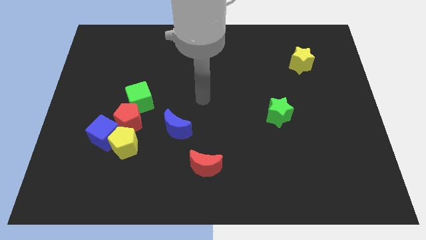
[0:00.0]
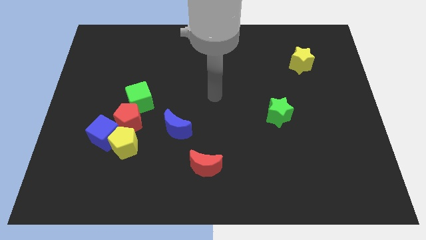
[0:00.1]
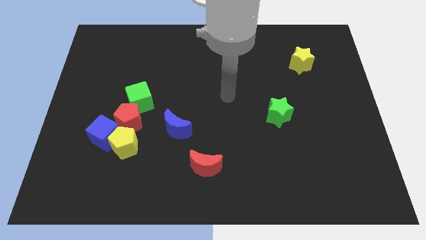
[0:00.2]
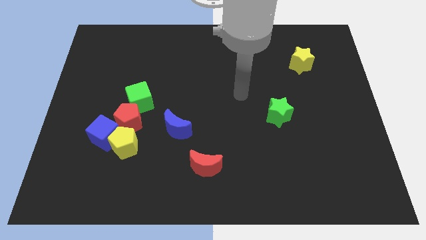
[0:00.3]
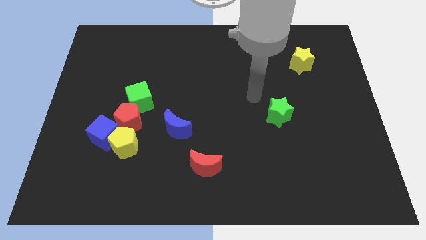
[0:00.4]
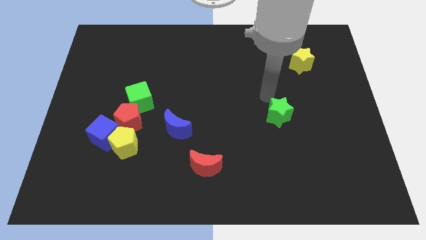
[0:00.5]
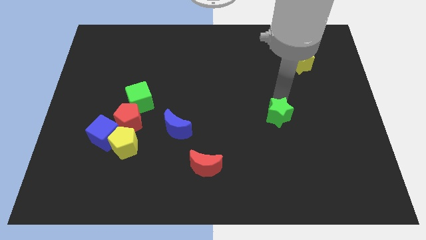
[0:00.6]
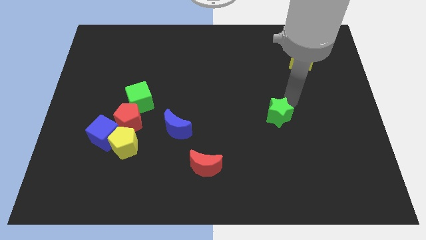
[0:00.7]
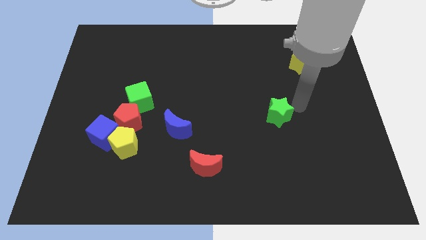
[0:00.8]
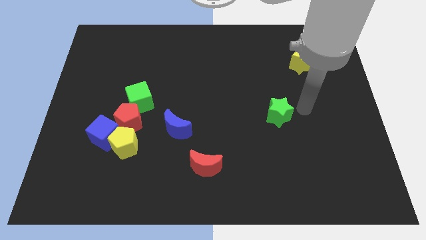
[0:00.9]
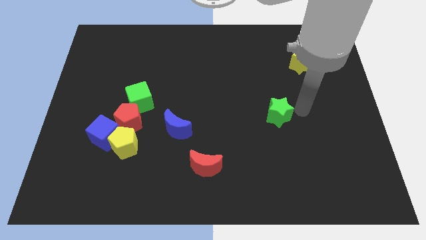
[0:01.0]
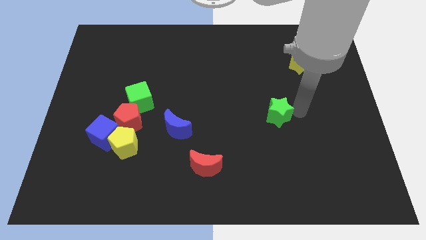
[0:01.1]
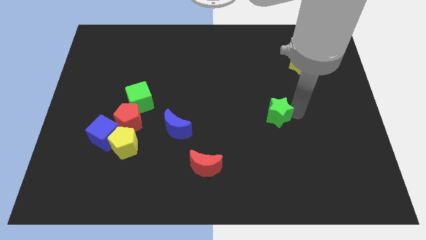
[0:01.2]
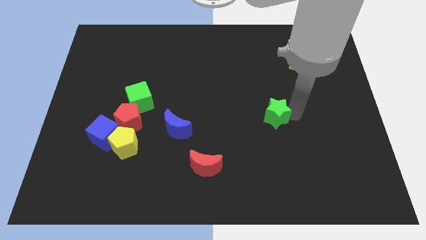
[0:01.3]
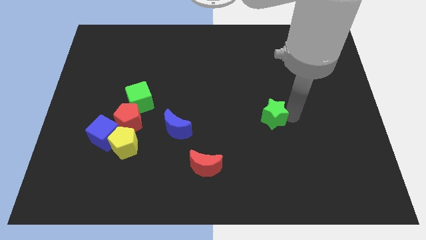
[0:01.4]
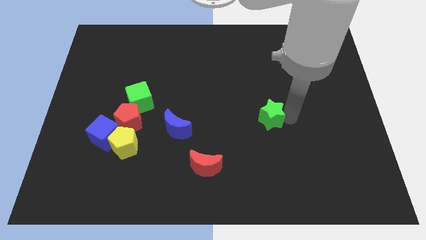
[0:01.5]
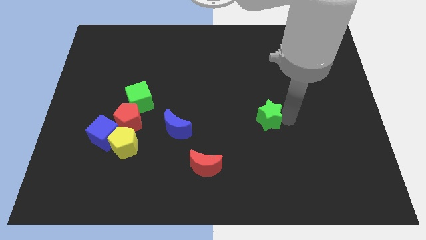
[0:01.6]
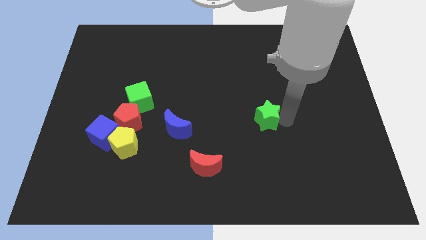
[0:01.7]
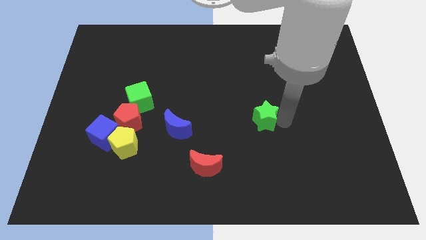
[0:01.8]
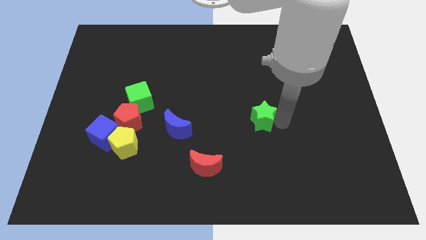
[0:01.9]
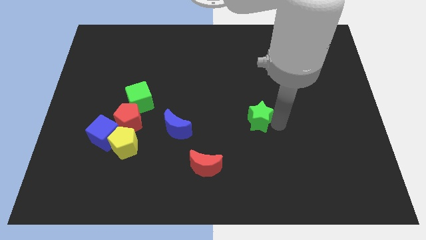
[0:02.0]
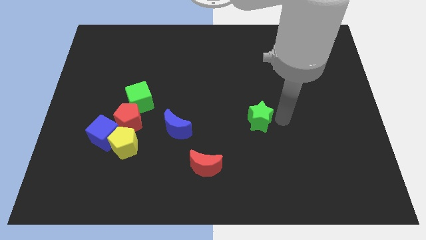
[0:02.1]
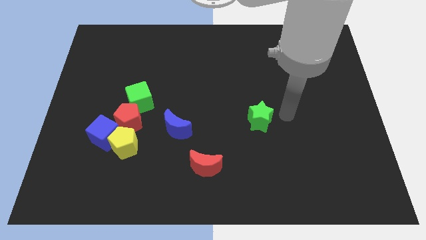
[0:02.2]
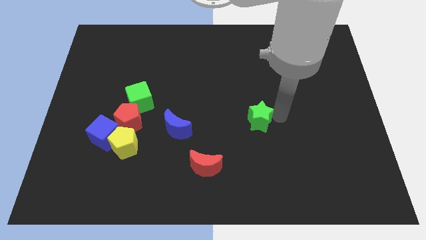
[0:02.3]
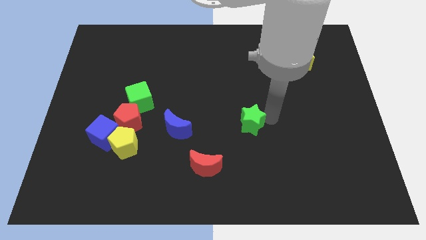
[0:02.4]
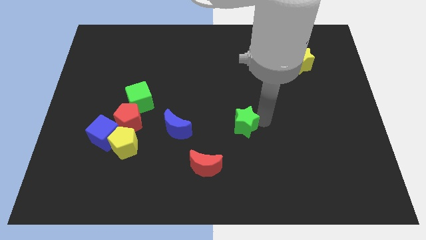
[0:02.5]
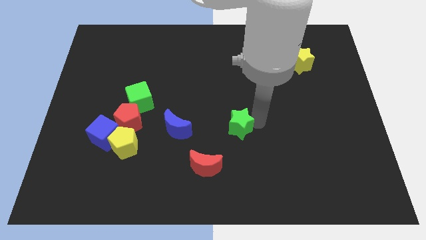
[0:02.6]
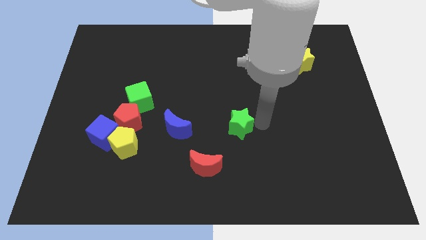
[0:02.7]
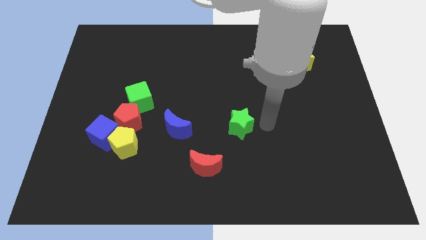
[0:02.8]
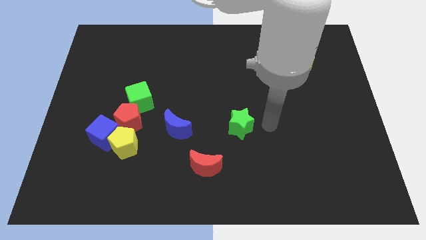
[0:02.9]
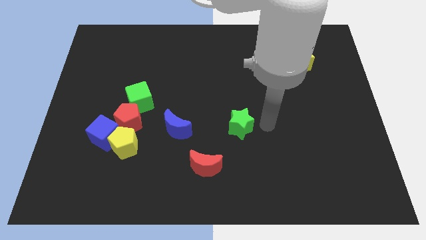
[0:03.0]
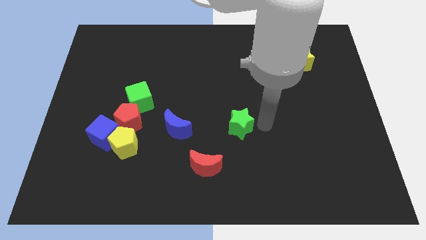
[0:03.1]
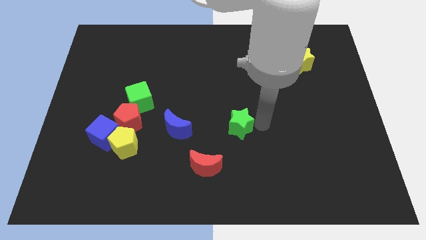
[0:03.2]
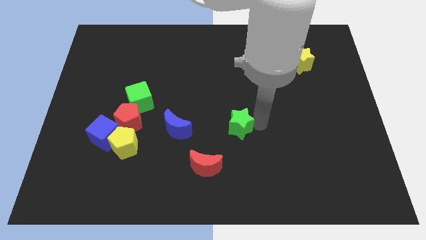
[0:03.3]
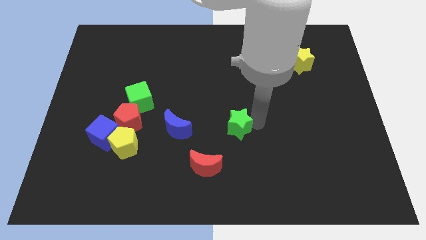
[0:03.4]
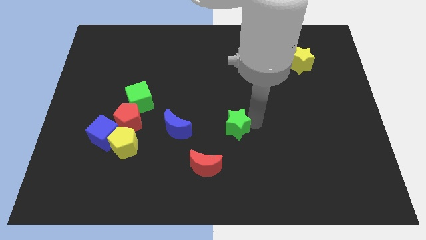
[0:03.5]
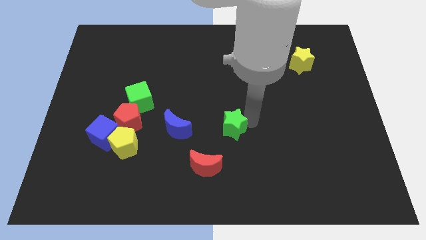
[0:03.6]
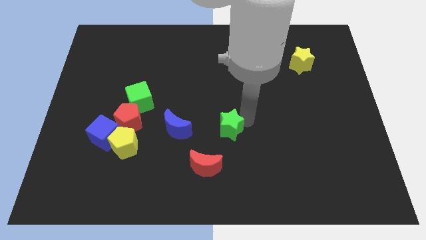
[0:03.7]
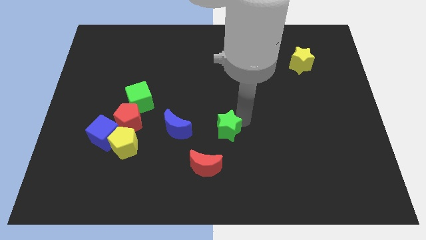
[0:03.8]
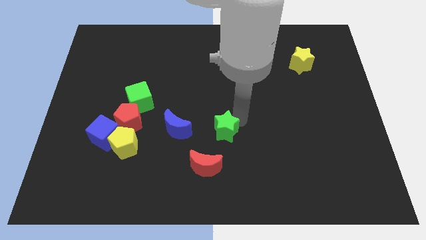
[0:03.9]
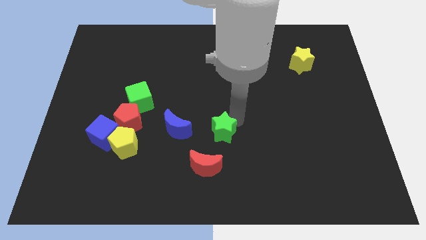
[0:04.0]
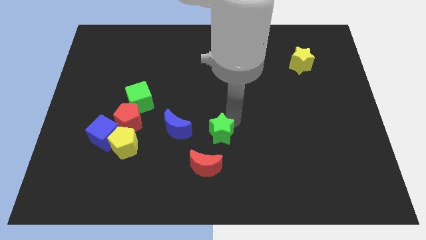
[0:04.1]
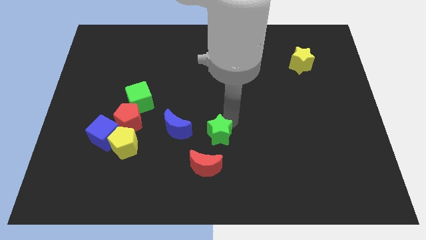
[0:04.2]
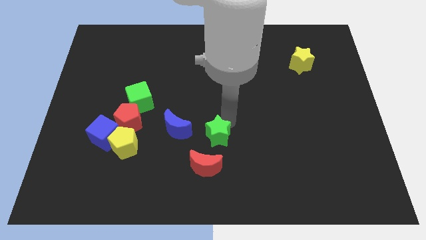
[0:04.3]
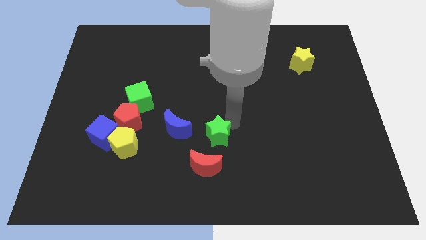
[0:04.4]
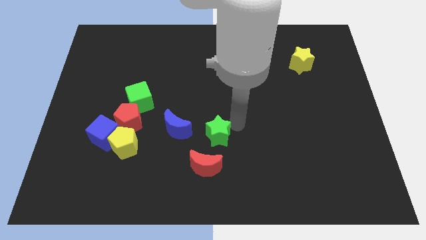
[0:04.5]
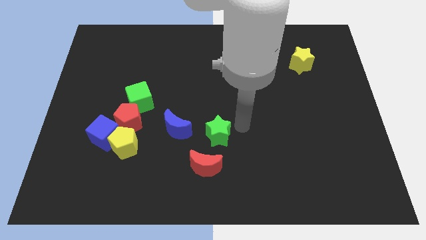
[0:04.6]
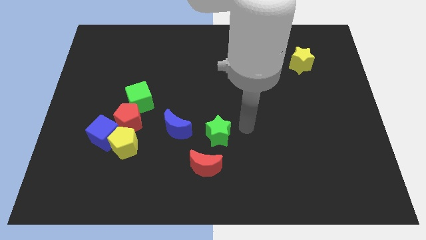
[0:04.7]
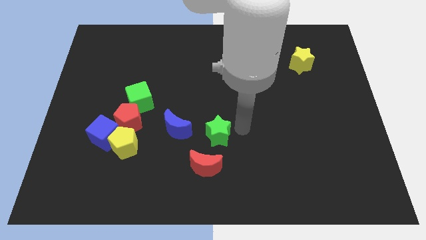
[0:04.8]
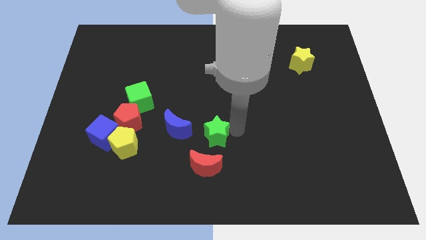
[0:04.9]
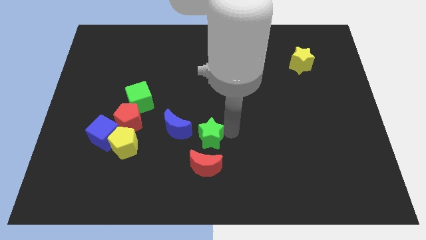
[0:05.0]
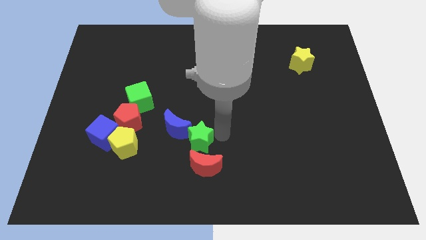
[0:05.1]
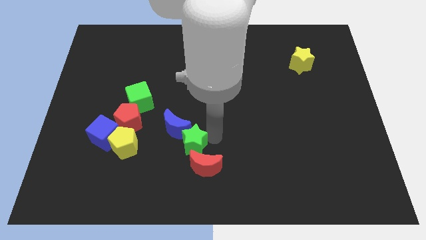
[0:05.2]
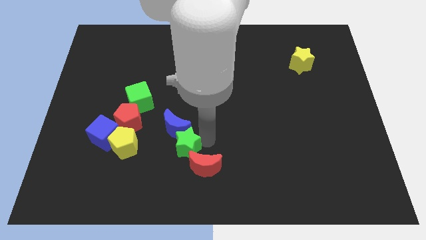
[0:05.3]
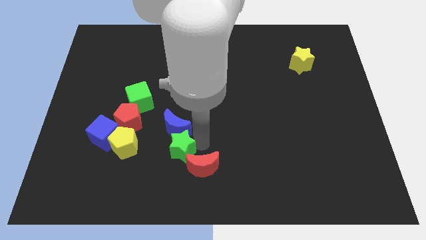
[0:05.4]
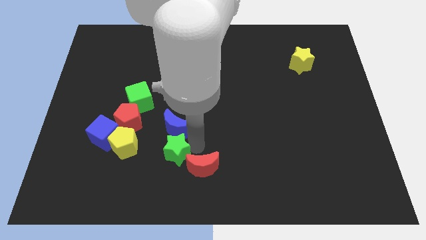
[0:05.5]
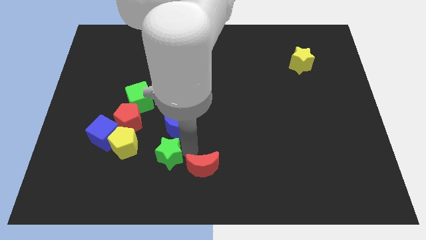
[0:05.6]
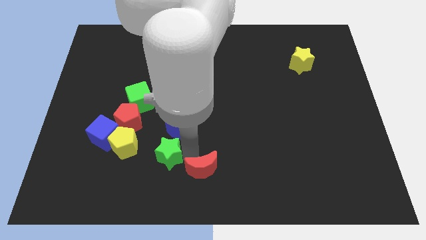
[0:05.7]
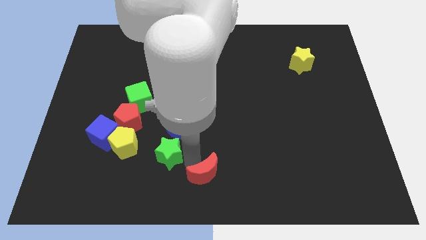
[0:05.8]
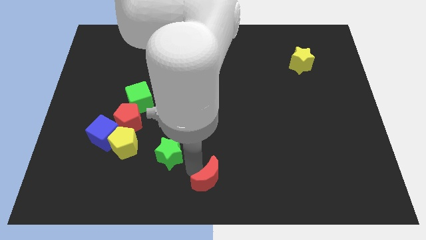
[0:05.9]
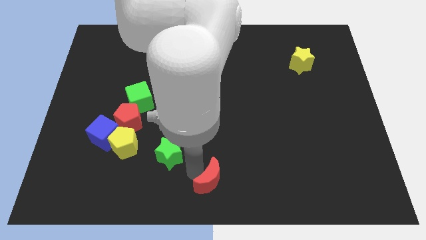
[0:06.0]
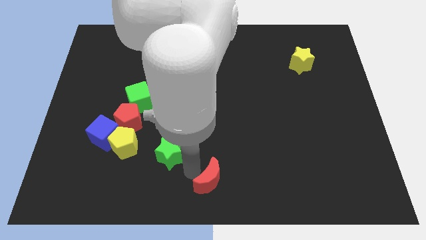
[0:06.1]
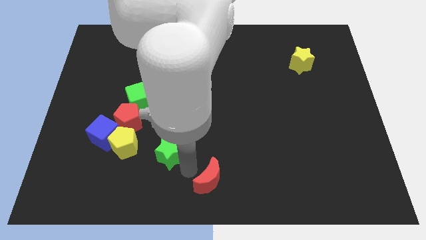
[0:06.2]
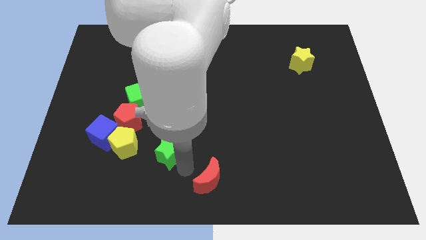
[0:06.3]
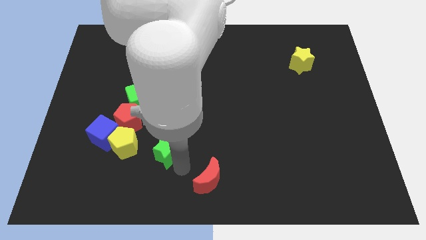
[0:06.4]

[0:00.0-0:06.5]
move the green star to the bottom right side of the red pentagon

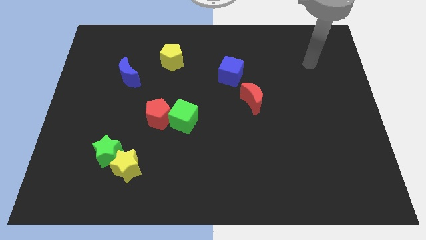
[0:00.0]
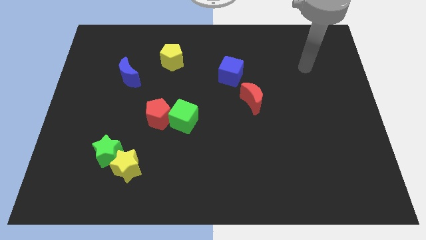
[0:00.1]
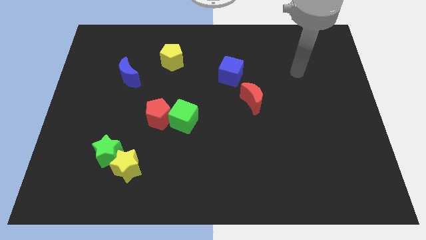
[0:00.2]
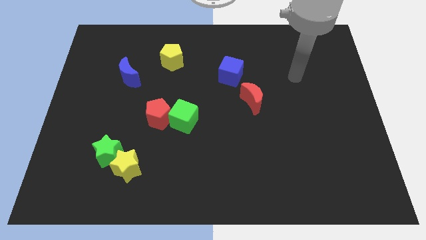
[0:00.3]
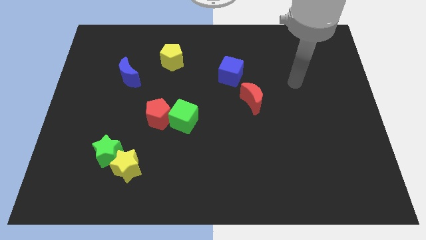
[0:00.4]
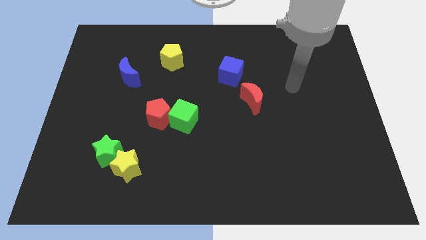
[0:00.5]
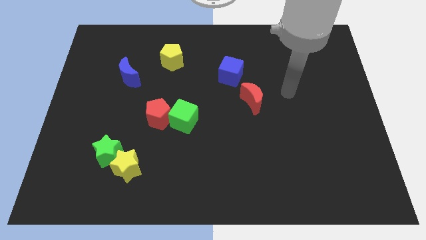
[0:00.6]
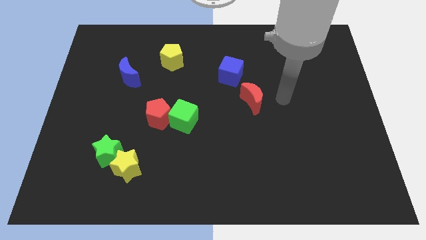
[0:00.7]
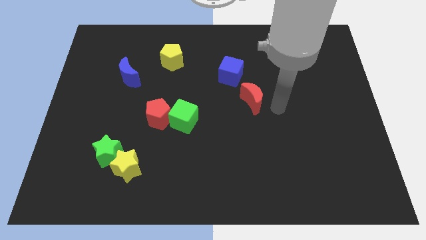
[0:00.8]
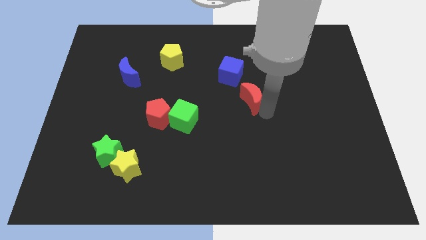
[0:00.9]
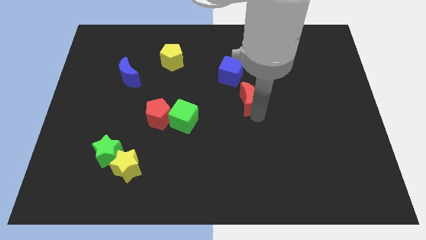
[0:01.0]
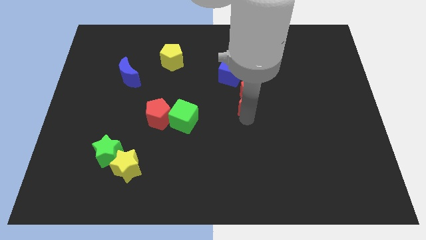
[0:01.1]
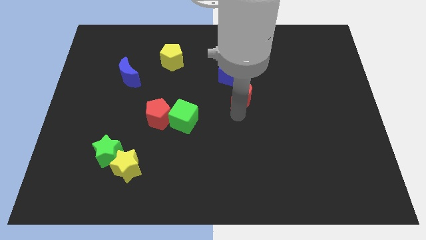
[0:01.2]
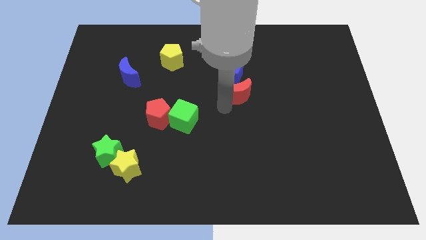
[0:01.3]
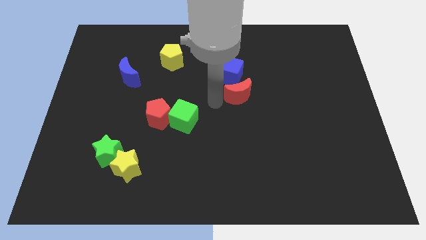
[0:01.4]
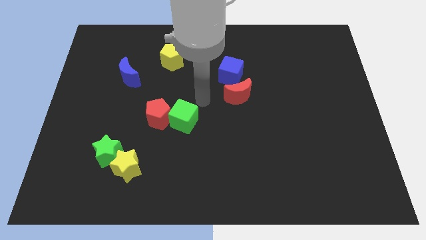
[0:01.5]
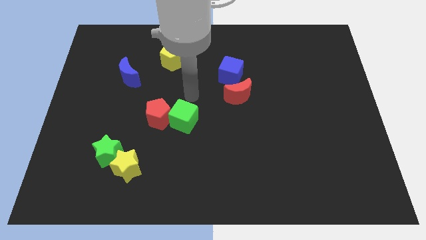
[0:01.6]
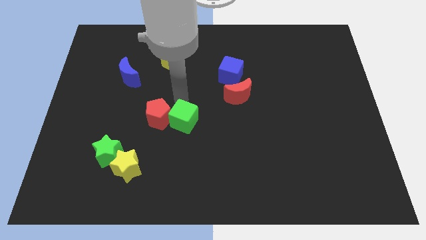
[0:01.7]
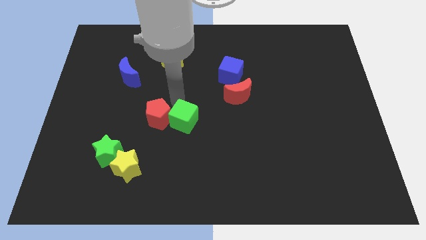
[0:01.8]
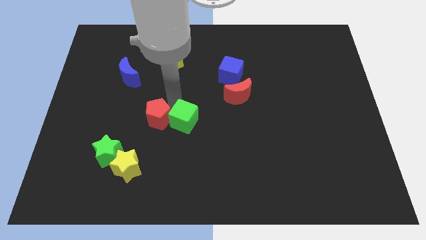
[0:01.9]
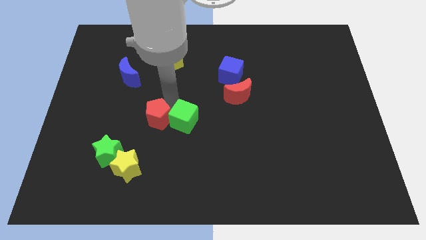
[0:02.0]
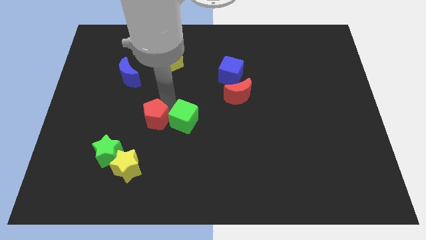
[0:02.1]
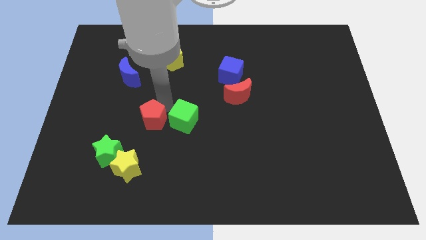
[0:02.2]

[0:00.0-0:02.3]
put the red pentagon to the top right of the green star
